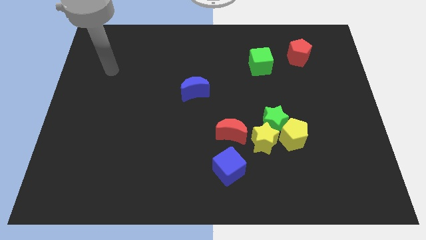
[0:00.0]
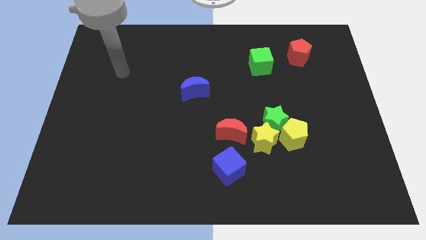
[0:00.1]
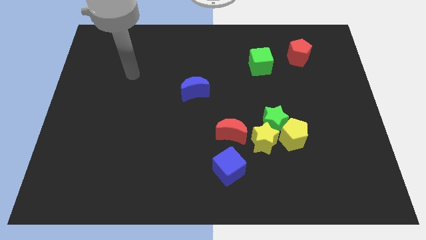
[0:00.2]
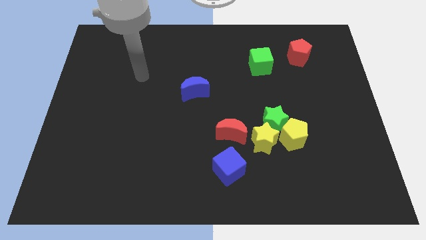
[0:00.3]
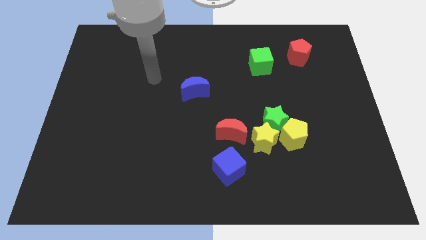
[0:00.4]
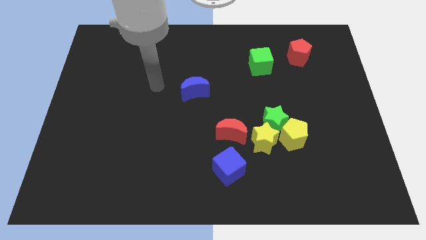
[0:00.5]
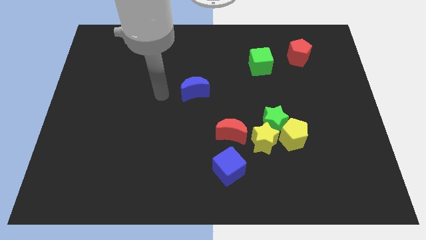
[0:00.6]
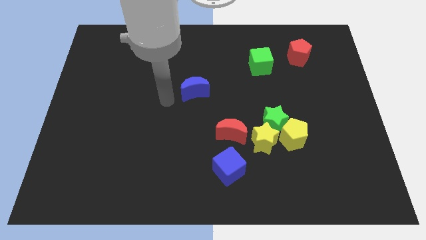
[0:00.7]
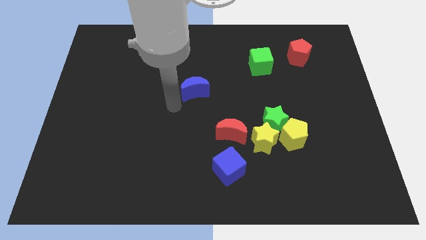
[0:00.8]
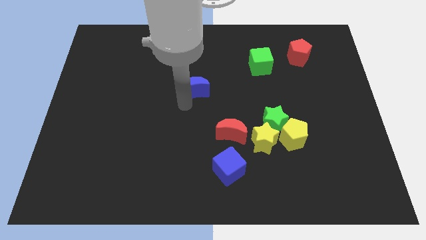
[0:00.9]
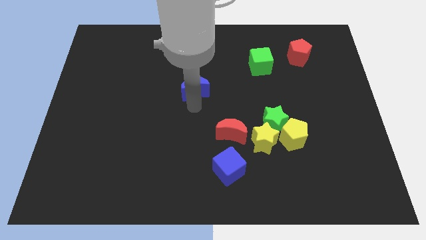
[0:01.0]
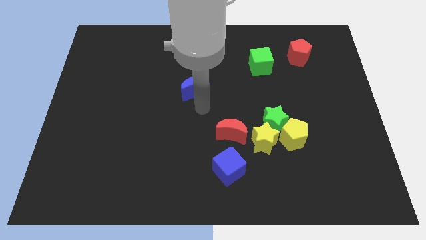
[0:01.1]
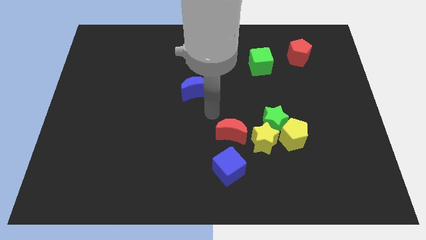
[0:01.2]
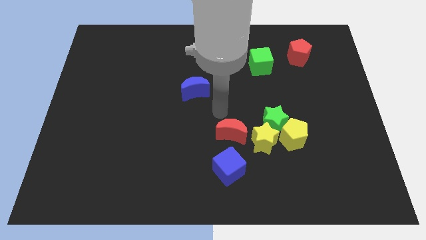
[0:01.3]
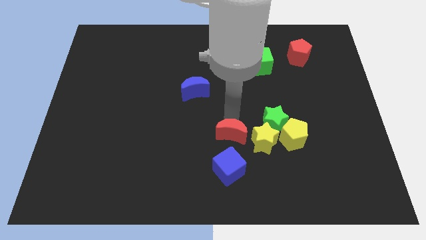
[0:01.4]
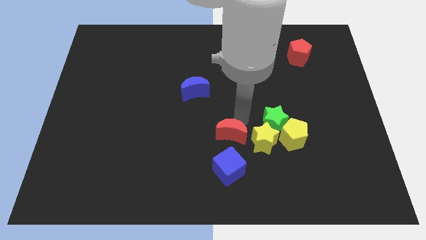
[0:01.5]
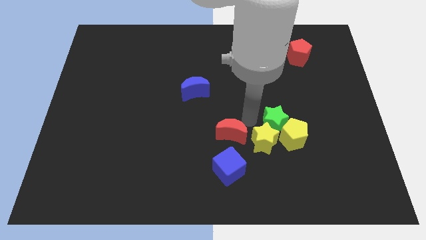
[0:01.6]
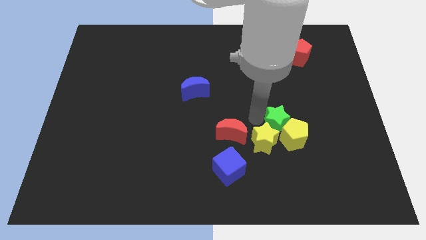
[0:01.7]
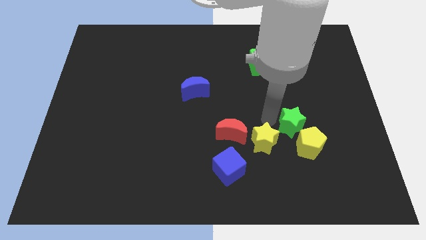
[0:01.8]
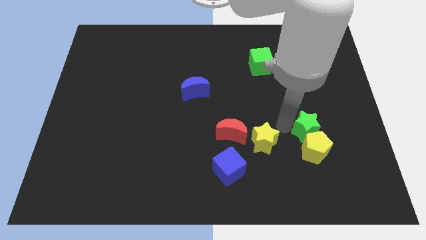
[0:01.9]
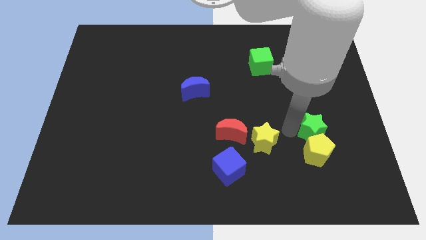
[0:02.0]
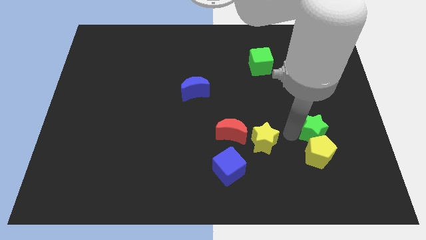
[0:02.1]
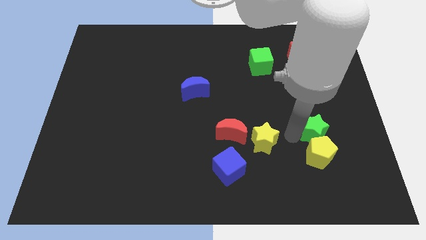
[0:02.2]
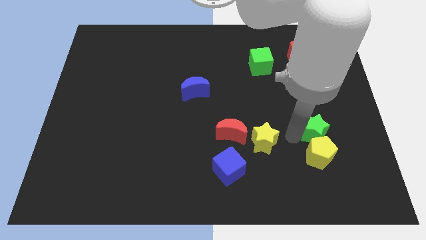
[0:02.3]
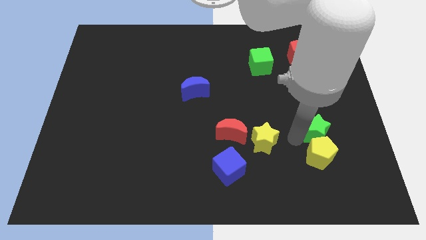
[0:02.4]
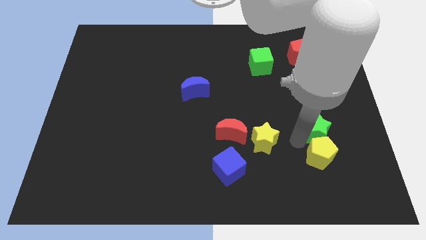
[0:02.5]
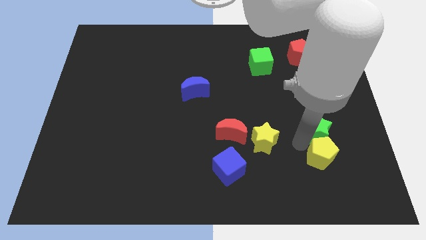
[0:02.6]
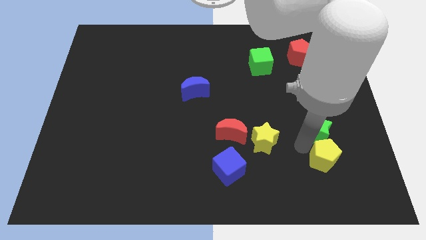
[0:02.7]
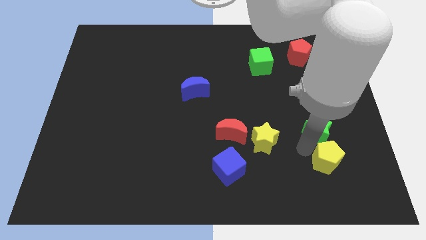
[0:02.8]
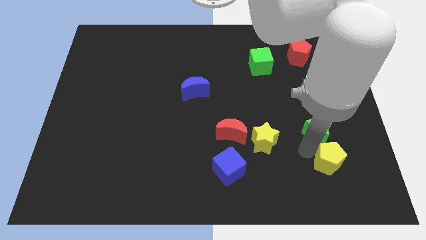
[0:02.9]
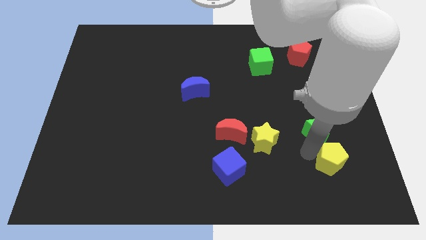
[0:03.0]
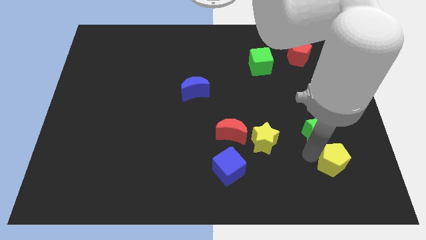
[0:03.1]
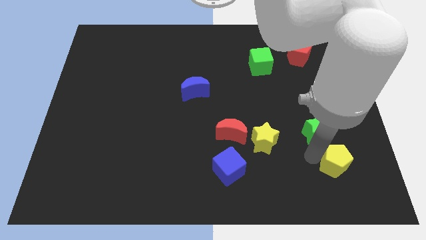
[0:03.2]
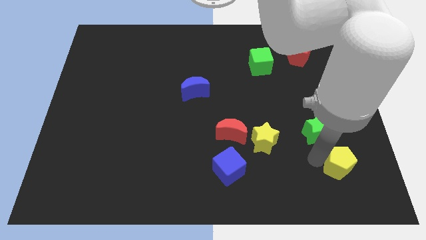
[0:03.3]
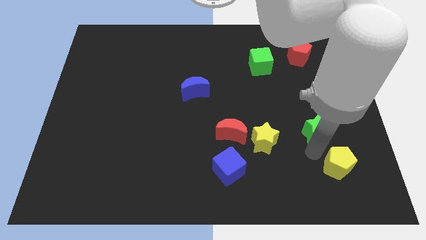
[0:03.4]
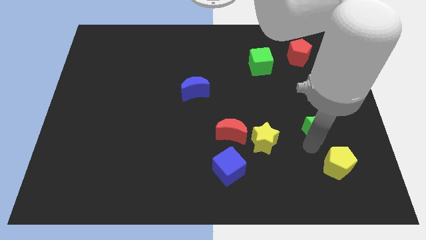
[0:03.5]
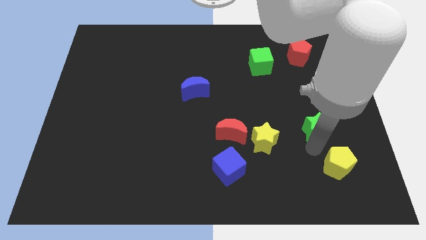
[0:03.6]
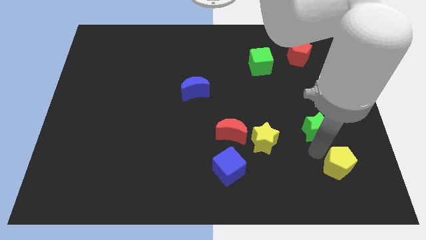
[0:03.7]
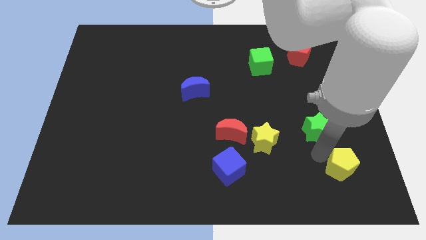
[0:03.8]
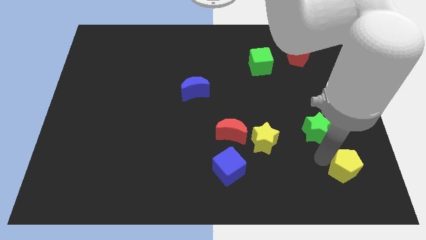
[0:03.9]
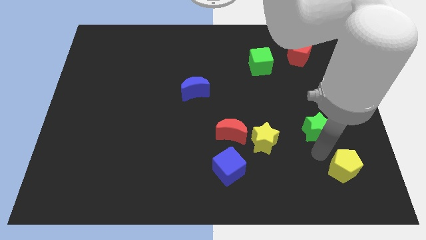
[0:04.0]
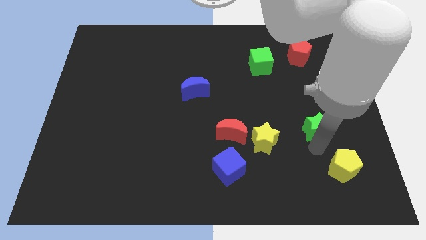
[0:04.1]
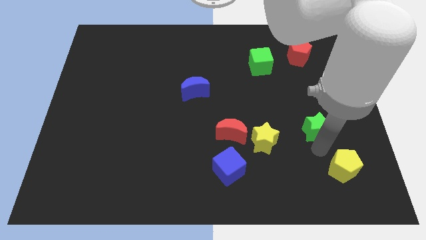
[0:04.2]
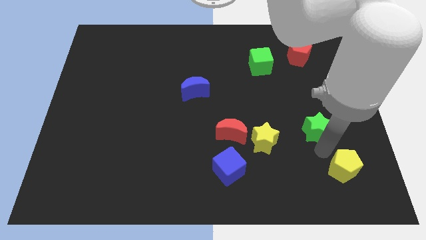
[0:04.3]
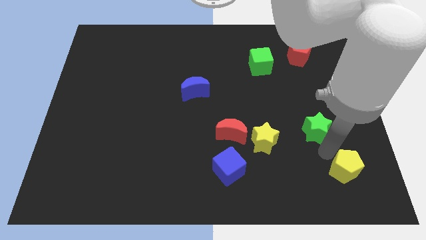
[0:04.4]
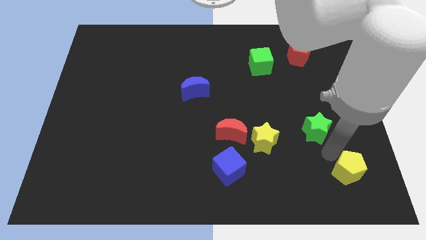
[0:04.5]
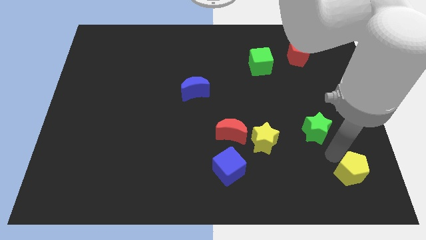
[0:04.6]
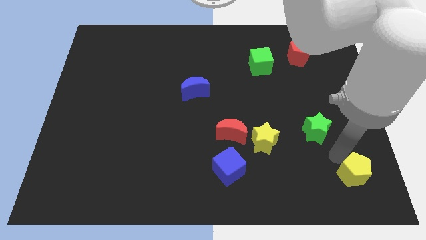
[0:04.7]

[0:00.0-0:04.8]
push the yellow pentagon to the lower right corner

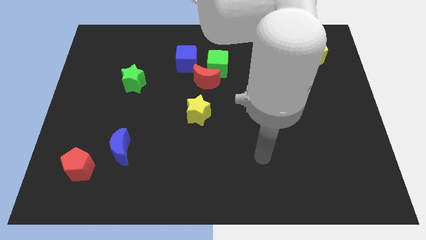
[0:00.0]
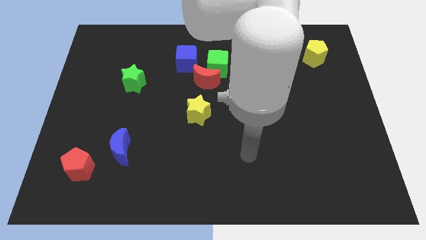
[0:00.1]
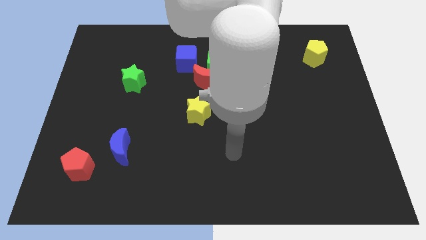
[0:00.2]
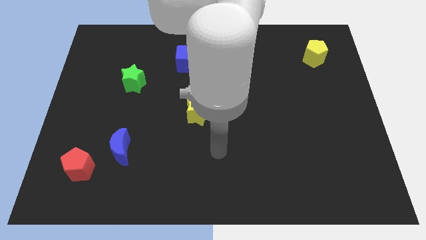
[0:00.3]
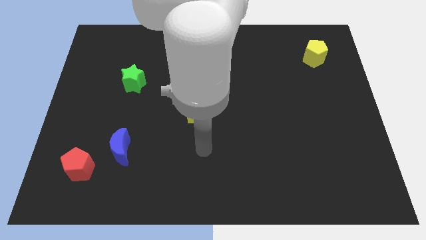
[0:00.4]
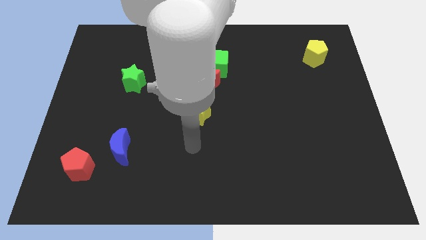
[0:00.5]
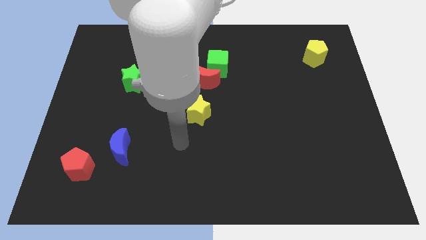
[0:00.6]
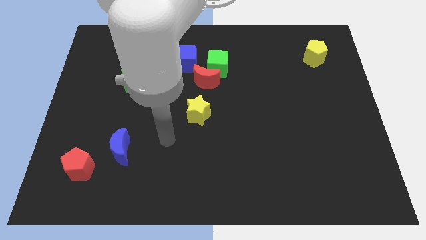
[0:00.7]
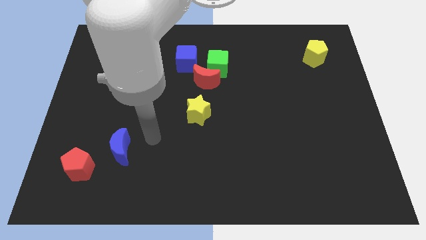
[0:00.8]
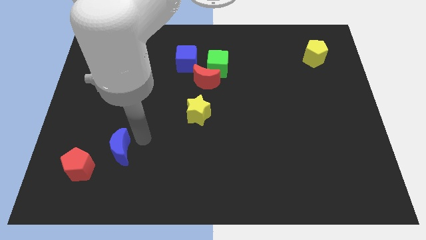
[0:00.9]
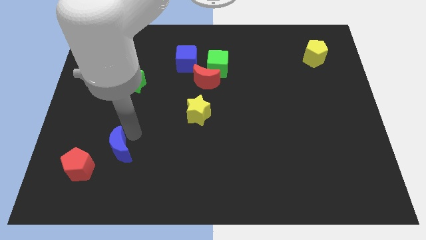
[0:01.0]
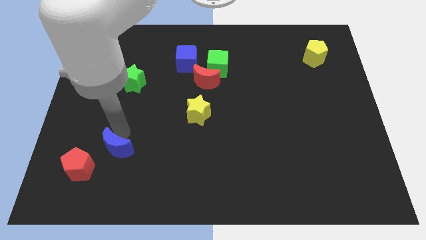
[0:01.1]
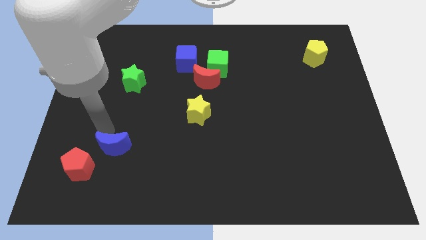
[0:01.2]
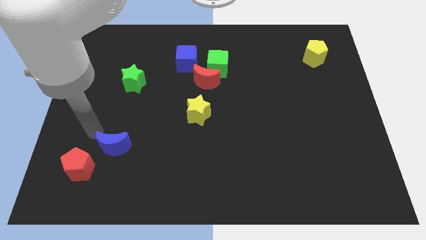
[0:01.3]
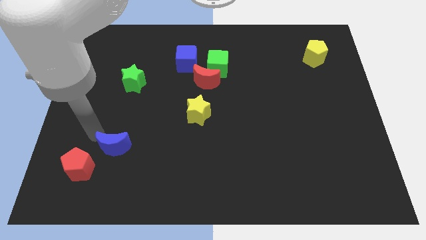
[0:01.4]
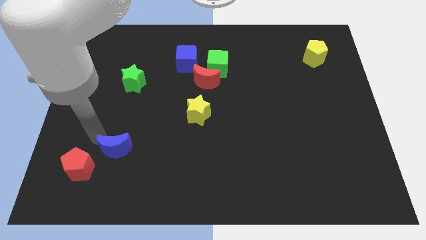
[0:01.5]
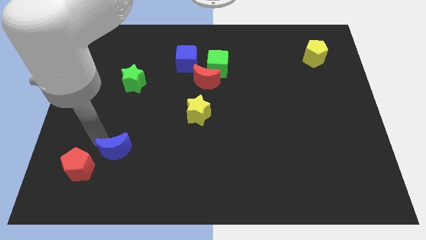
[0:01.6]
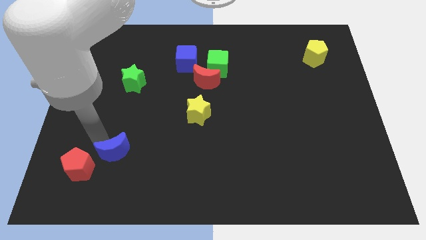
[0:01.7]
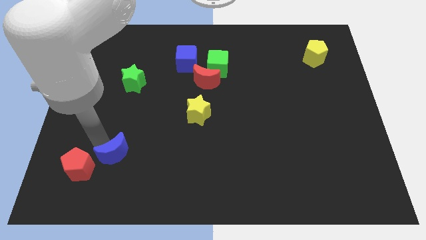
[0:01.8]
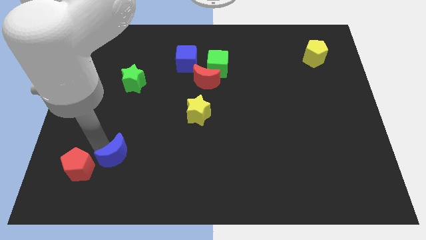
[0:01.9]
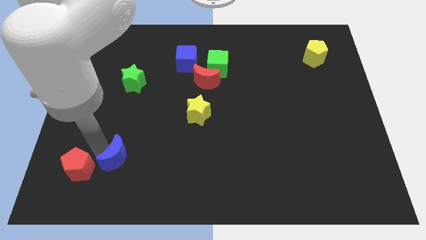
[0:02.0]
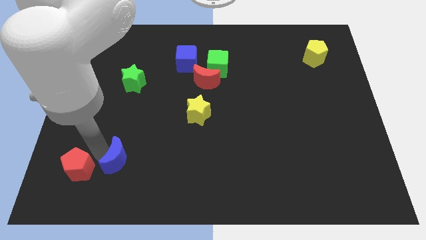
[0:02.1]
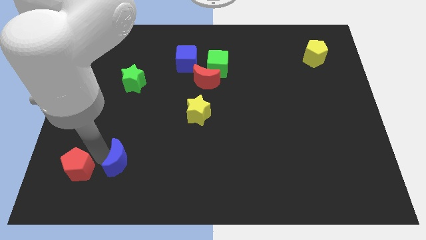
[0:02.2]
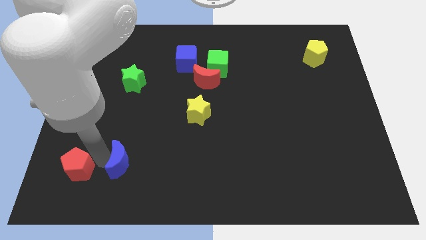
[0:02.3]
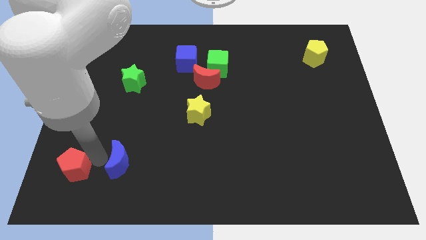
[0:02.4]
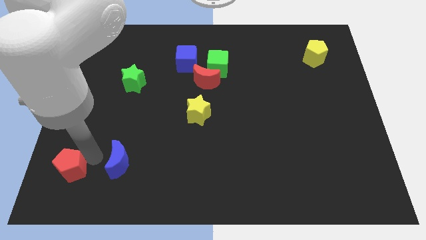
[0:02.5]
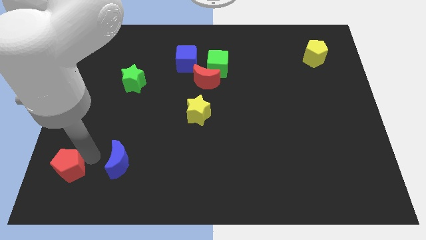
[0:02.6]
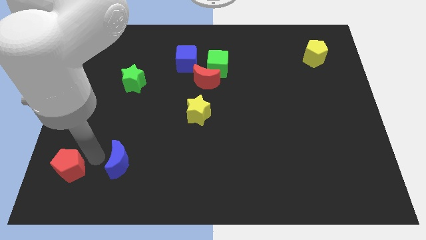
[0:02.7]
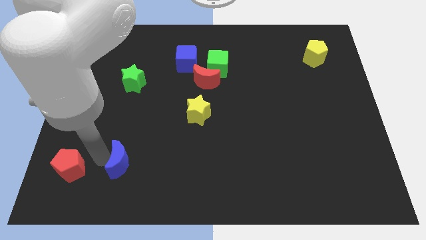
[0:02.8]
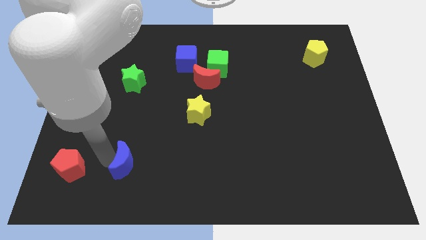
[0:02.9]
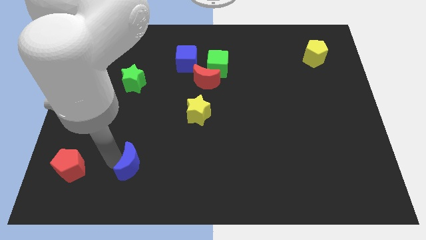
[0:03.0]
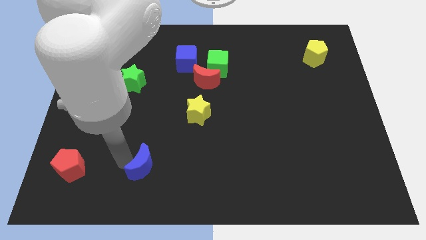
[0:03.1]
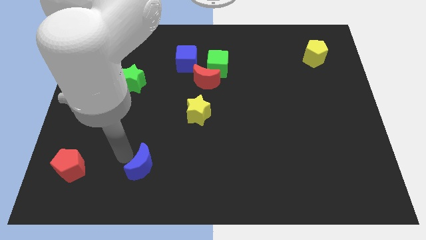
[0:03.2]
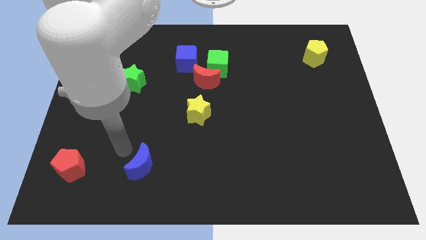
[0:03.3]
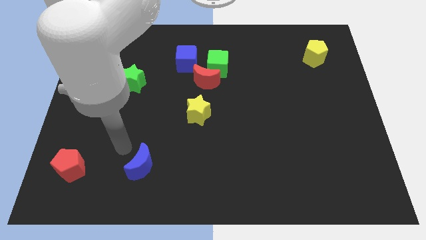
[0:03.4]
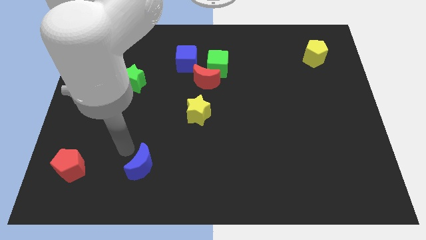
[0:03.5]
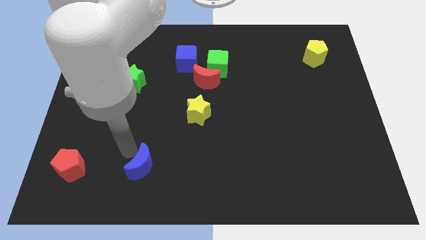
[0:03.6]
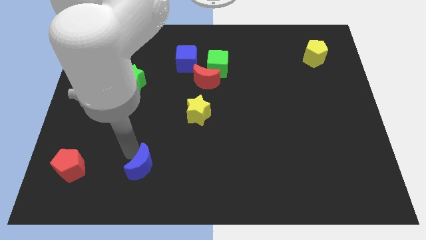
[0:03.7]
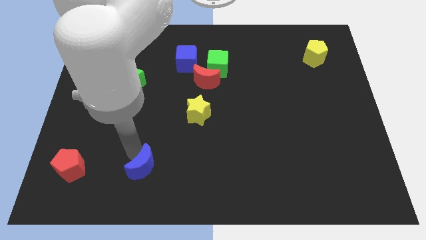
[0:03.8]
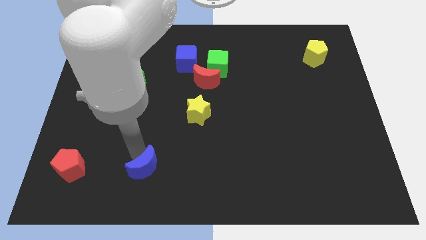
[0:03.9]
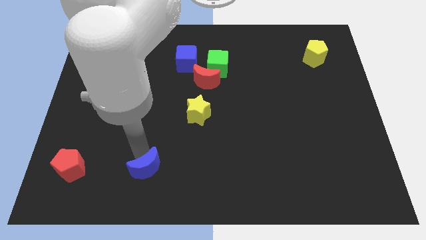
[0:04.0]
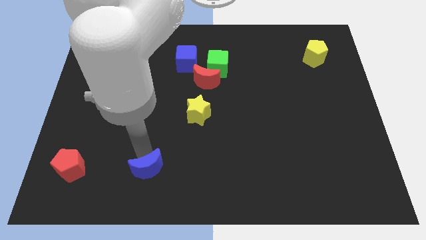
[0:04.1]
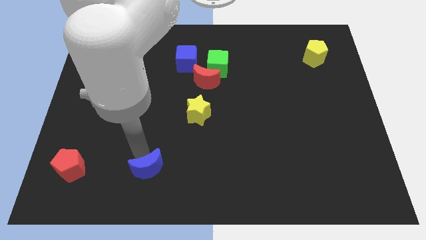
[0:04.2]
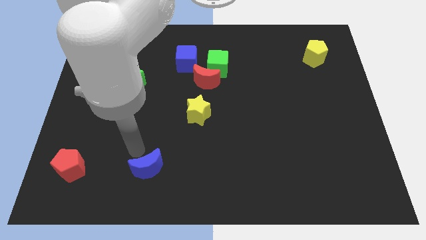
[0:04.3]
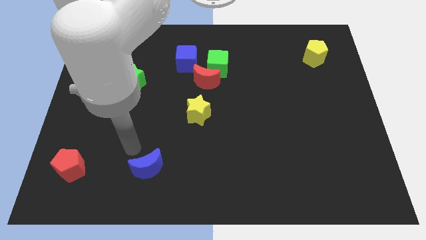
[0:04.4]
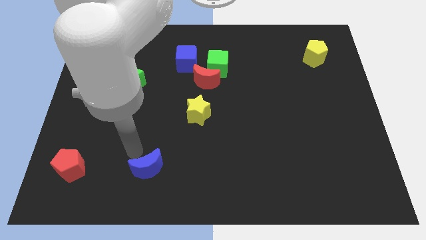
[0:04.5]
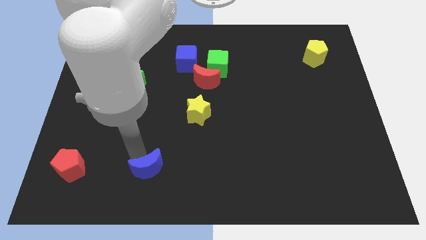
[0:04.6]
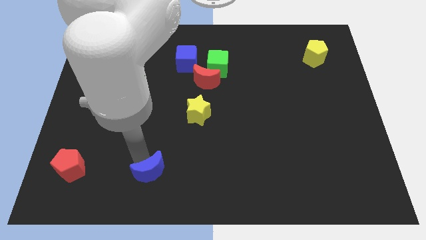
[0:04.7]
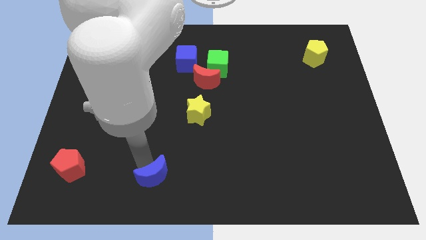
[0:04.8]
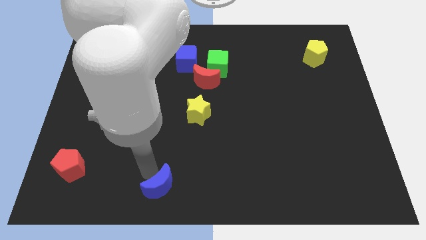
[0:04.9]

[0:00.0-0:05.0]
slide the blue moon to the bottom
